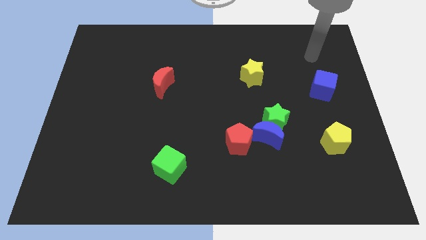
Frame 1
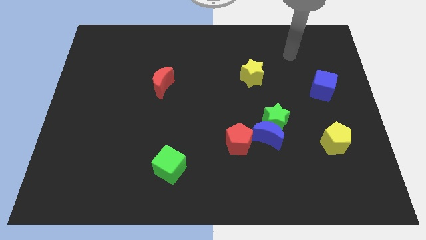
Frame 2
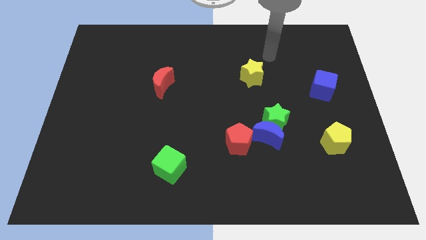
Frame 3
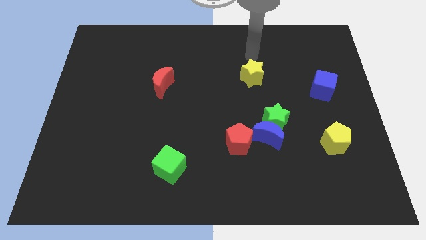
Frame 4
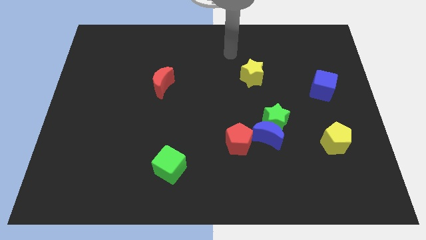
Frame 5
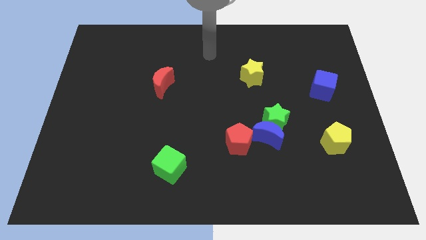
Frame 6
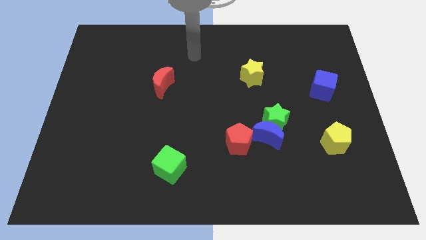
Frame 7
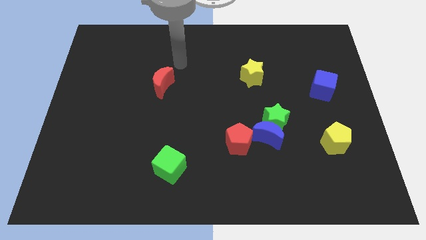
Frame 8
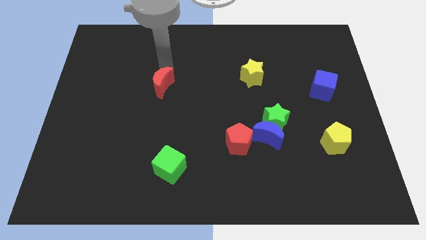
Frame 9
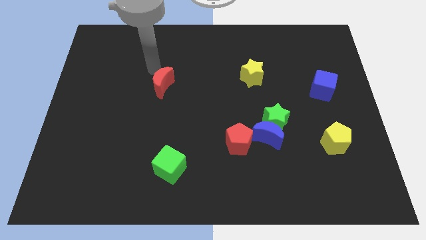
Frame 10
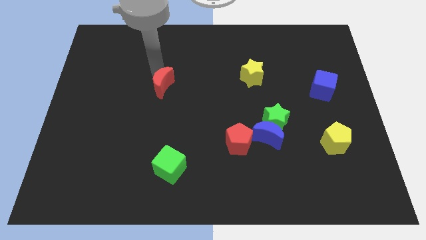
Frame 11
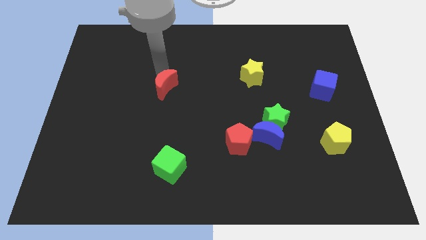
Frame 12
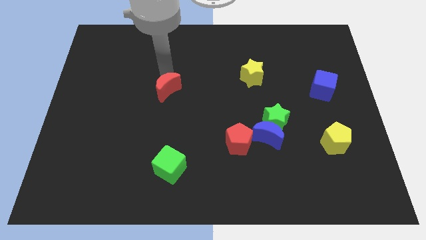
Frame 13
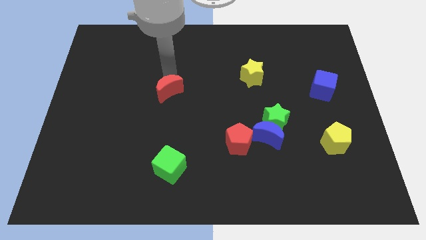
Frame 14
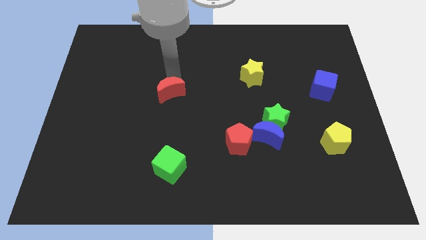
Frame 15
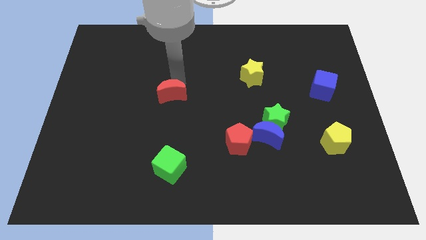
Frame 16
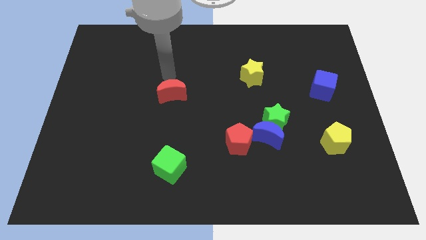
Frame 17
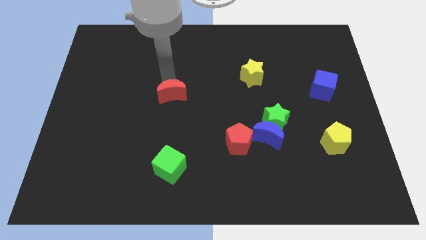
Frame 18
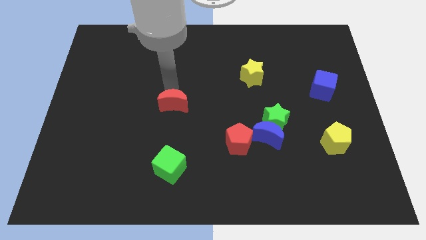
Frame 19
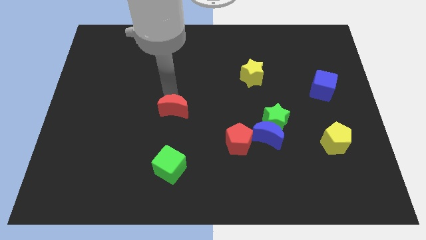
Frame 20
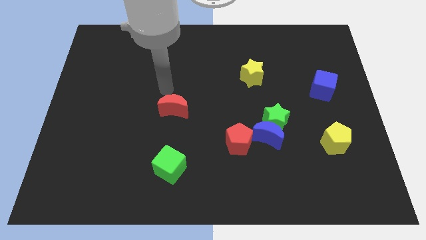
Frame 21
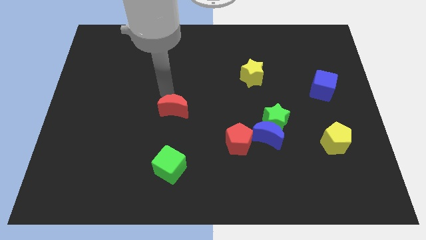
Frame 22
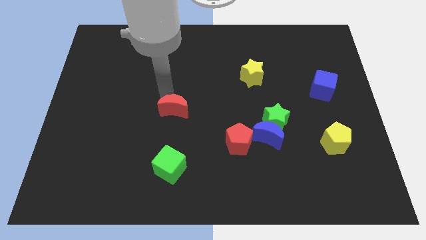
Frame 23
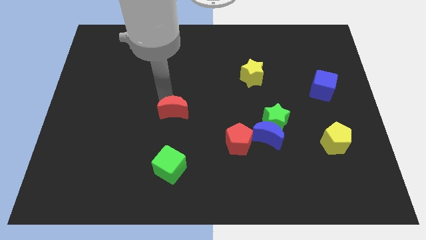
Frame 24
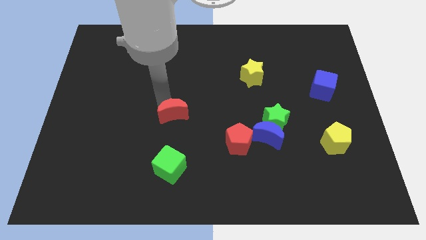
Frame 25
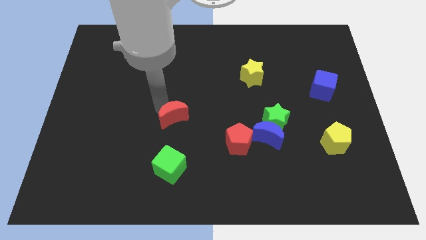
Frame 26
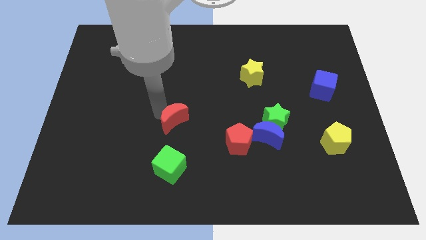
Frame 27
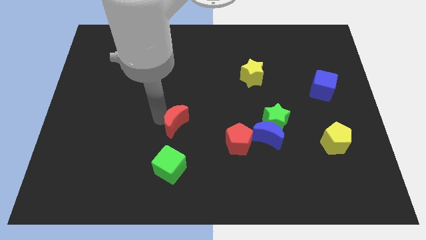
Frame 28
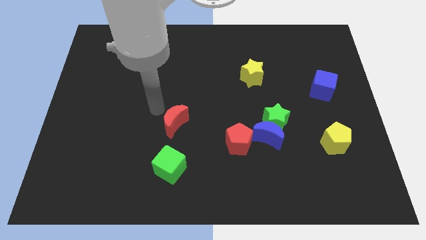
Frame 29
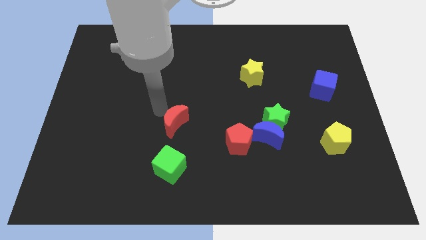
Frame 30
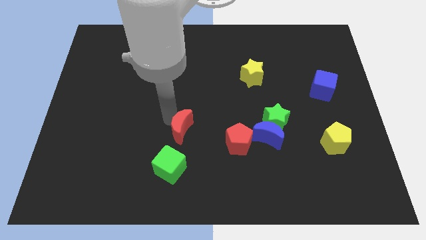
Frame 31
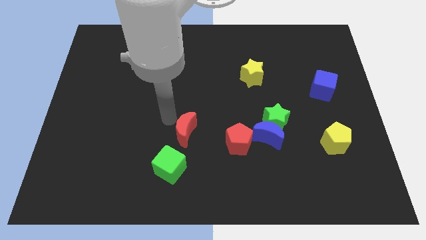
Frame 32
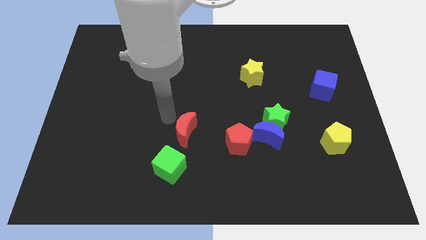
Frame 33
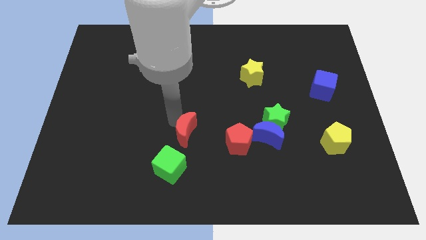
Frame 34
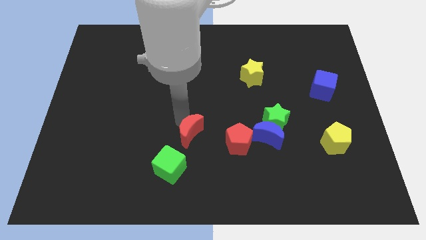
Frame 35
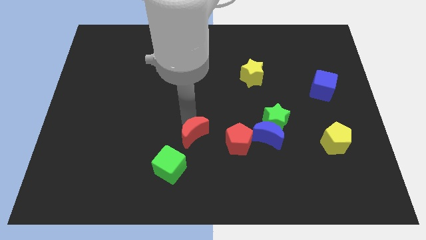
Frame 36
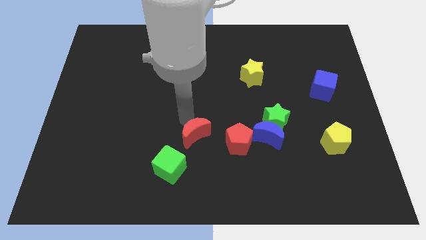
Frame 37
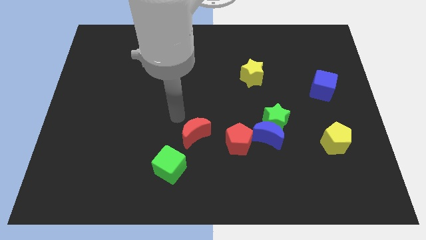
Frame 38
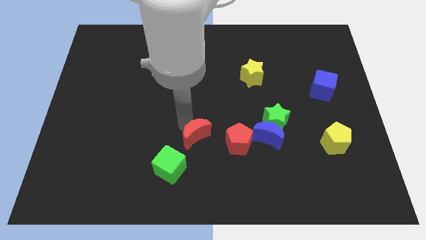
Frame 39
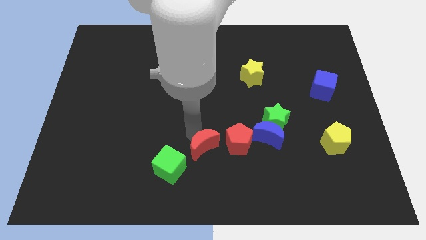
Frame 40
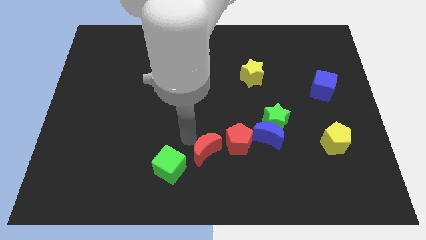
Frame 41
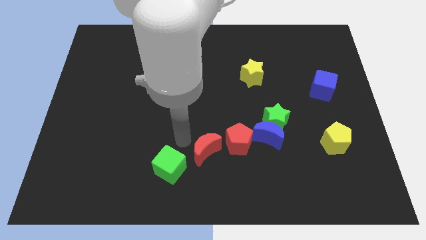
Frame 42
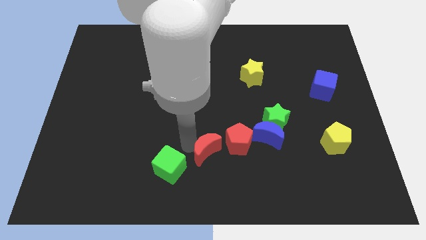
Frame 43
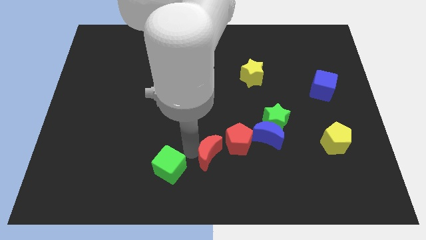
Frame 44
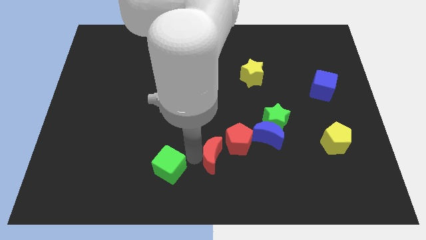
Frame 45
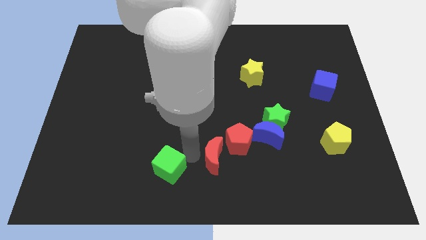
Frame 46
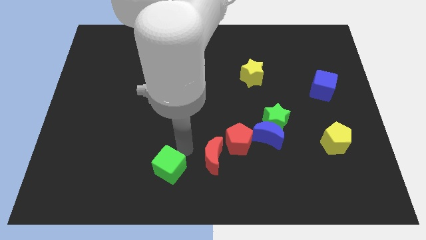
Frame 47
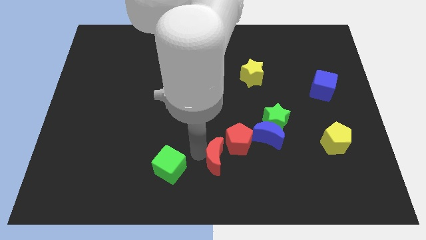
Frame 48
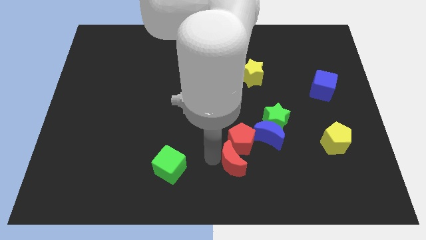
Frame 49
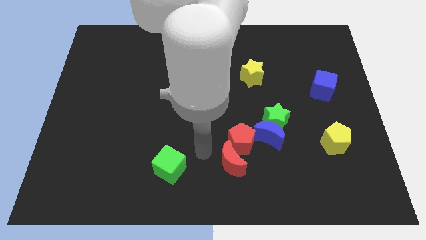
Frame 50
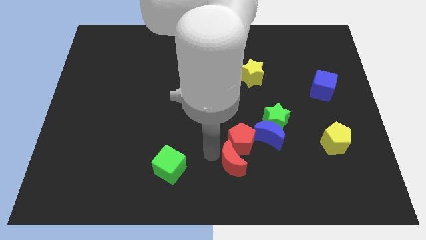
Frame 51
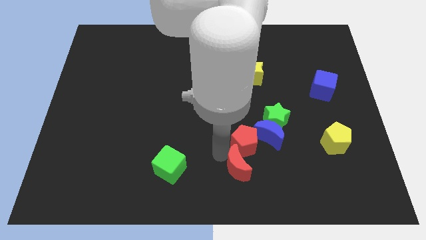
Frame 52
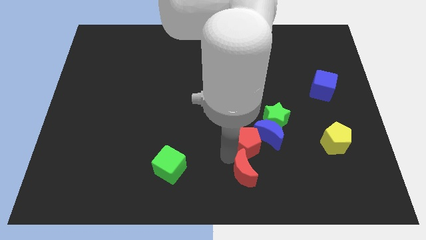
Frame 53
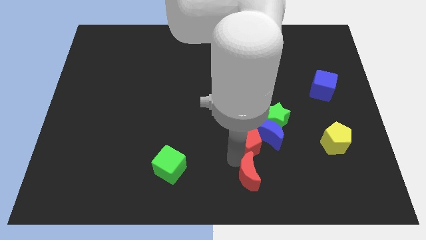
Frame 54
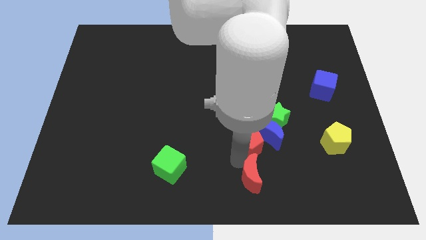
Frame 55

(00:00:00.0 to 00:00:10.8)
push the red moon below the blue moon

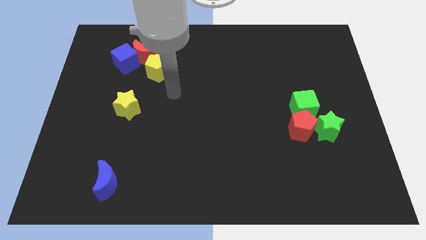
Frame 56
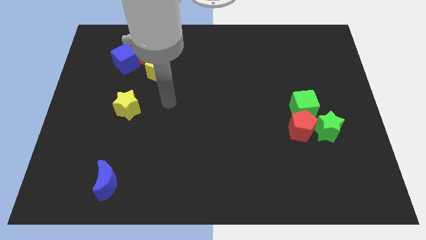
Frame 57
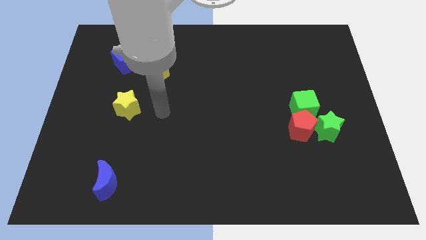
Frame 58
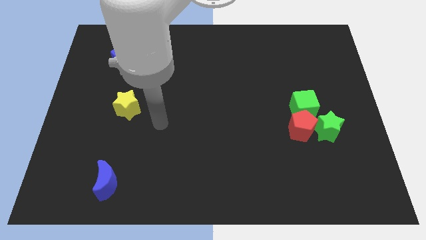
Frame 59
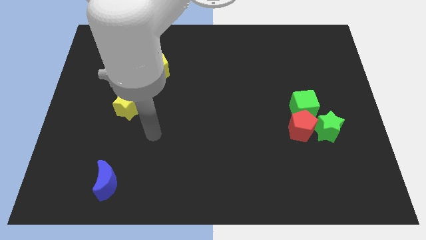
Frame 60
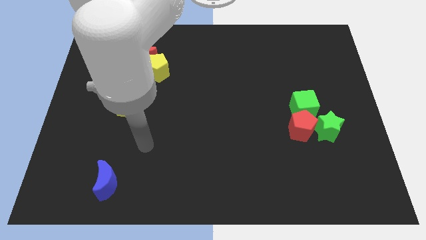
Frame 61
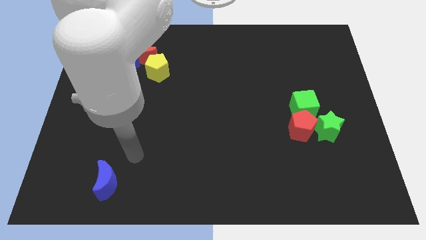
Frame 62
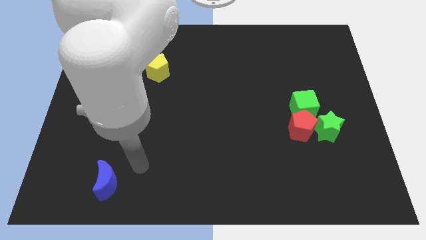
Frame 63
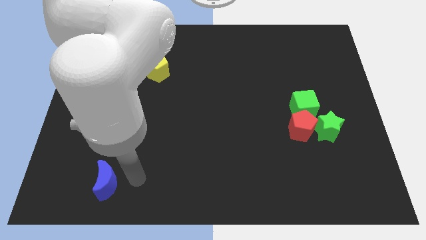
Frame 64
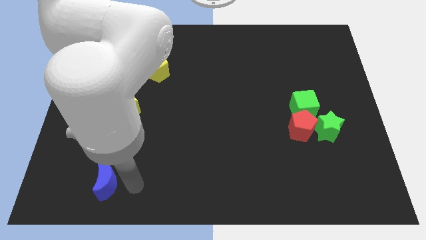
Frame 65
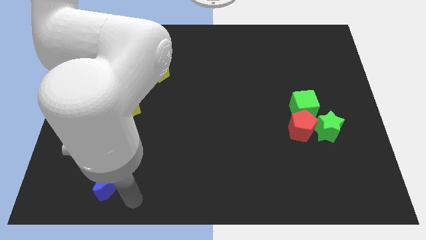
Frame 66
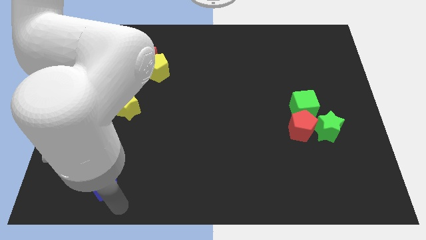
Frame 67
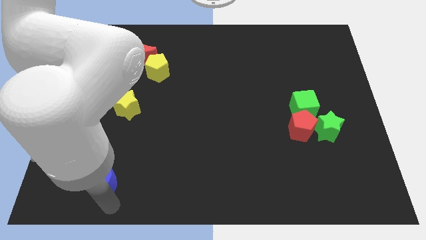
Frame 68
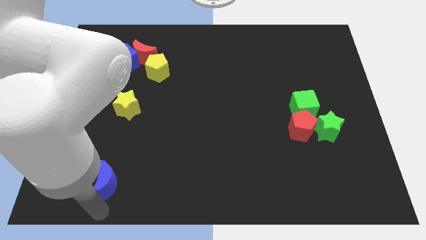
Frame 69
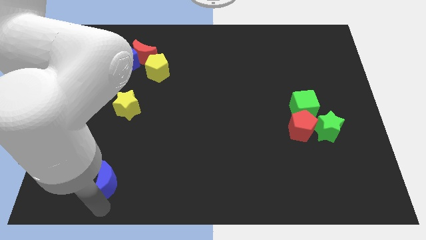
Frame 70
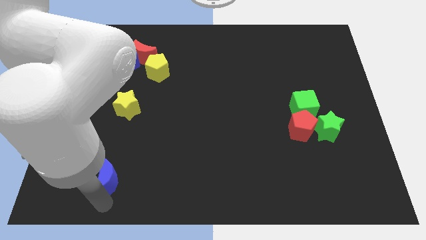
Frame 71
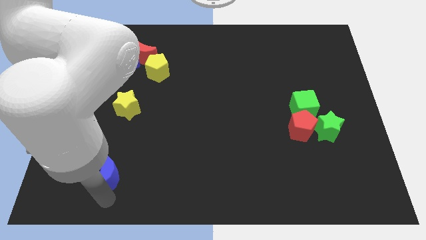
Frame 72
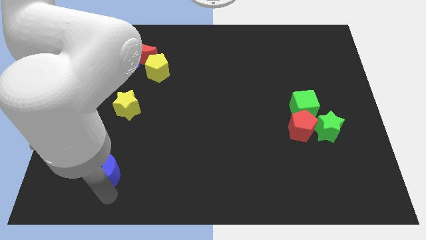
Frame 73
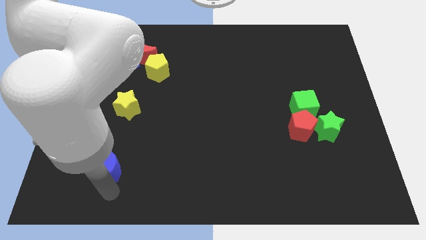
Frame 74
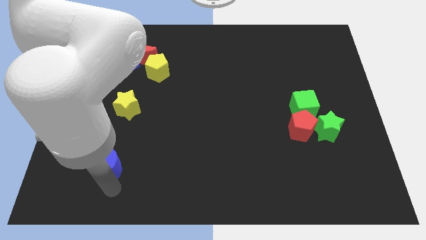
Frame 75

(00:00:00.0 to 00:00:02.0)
put the blue moon to the bottom side of the yellow star
